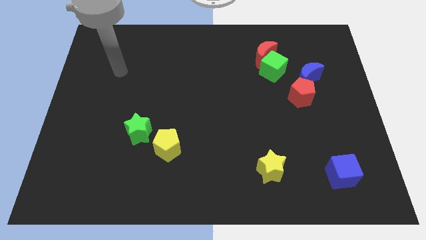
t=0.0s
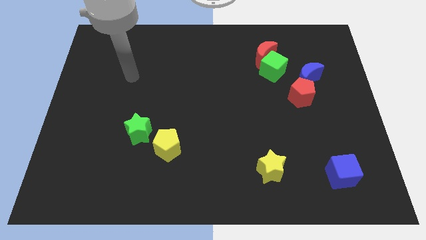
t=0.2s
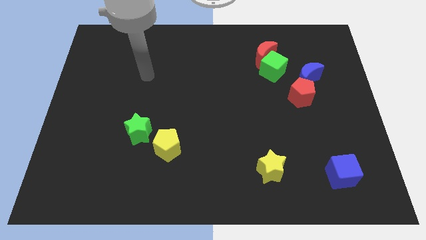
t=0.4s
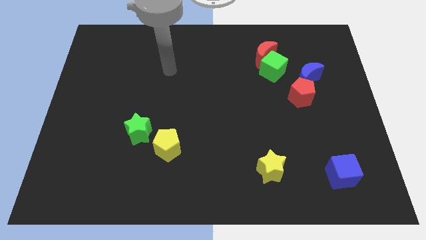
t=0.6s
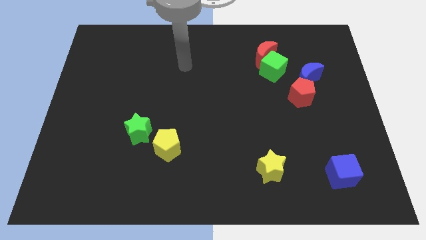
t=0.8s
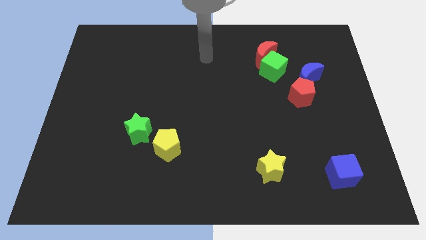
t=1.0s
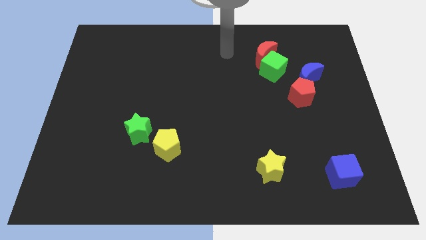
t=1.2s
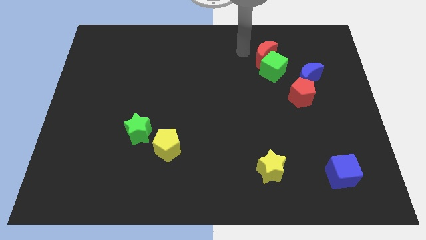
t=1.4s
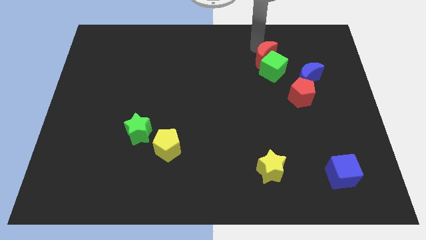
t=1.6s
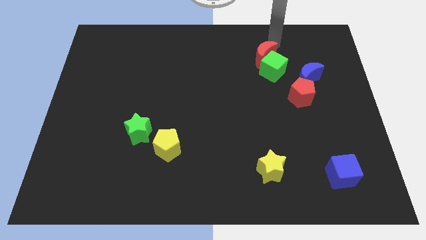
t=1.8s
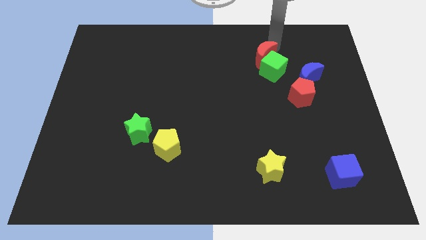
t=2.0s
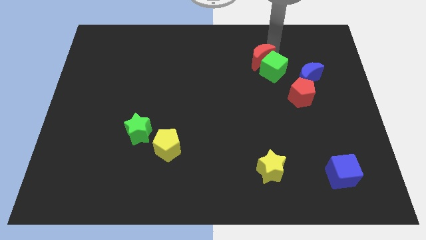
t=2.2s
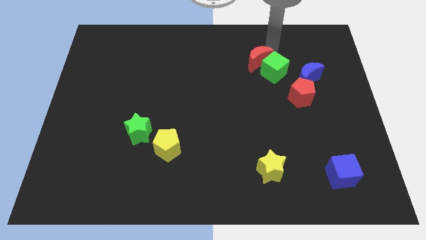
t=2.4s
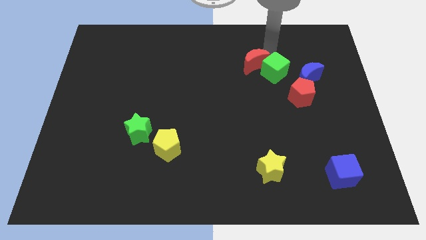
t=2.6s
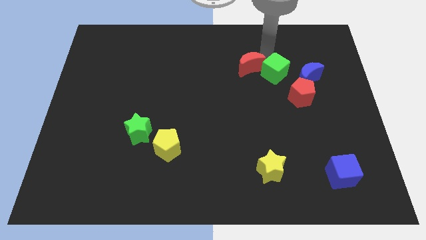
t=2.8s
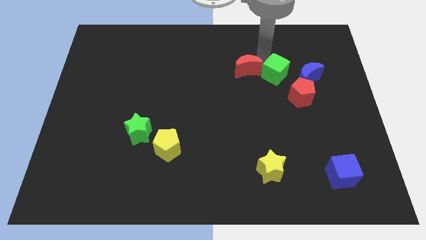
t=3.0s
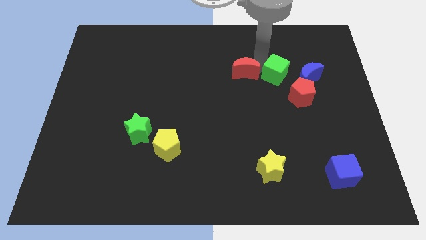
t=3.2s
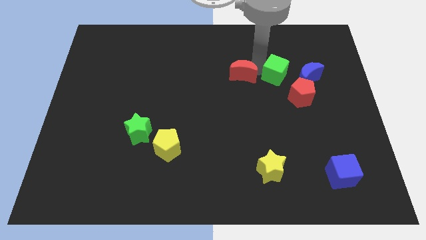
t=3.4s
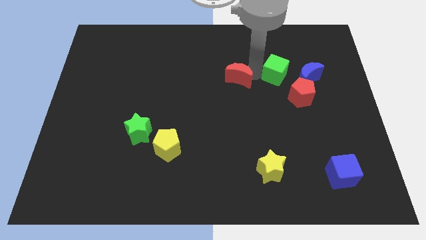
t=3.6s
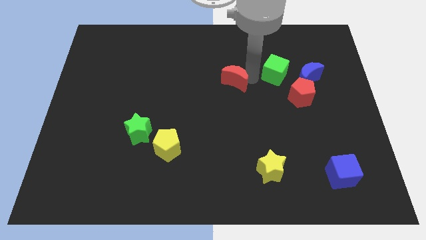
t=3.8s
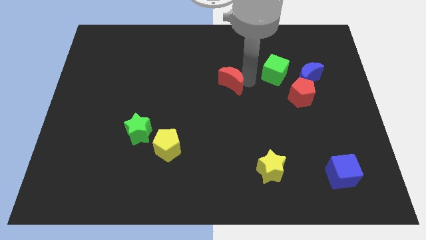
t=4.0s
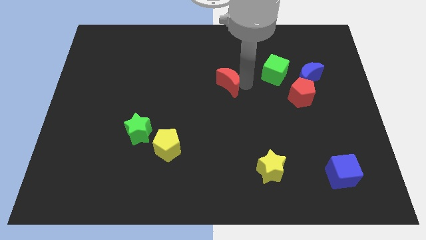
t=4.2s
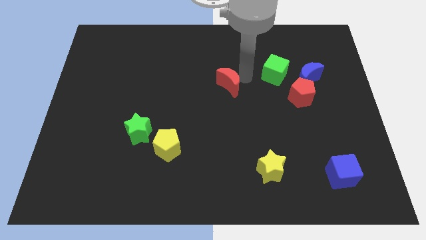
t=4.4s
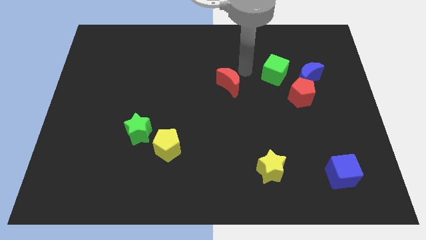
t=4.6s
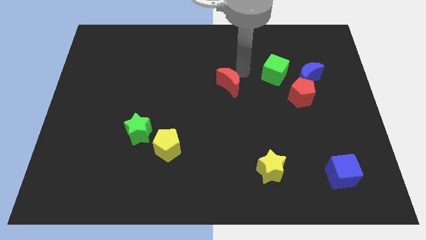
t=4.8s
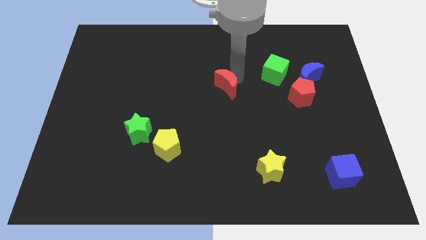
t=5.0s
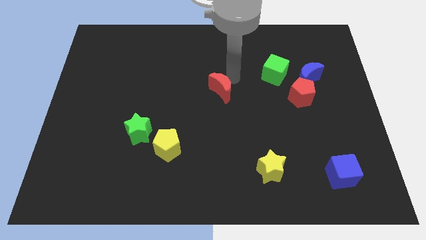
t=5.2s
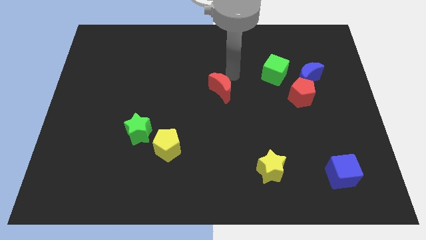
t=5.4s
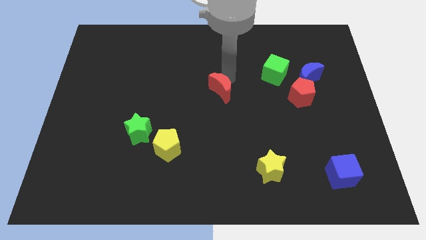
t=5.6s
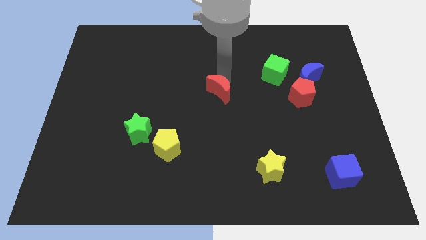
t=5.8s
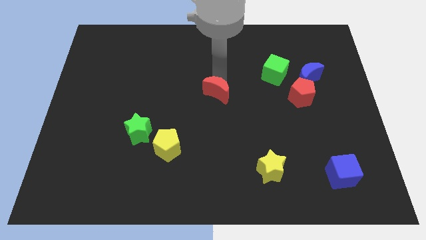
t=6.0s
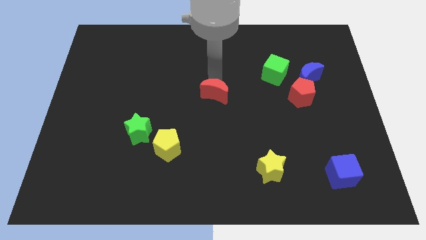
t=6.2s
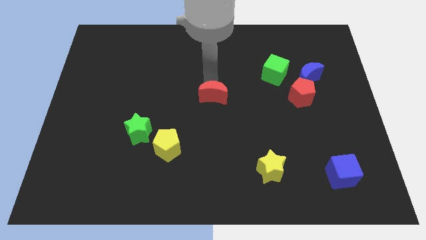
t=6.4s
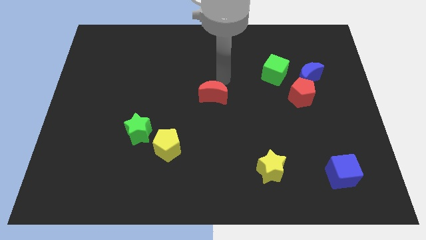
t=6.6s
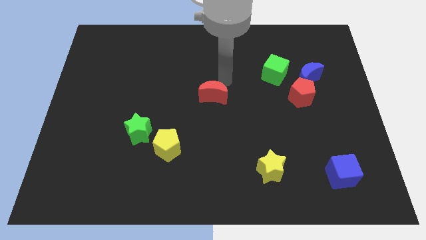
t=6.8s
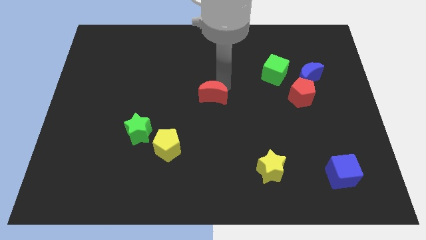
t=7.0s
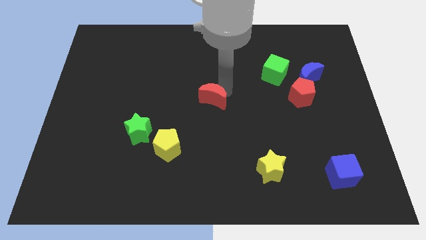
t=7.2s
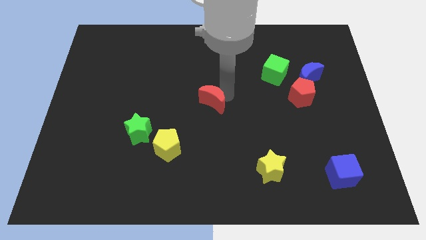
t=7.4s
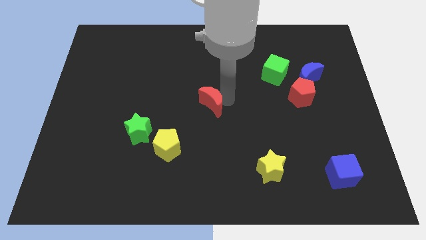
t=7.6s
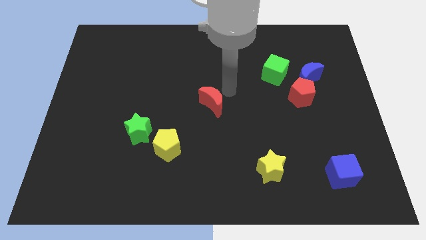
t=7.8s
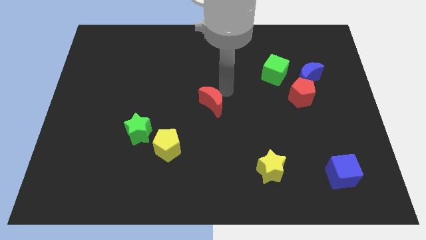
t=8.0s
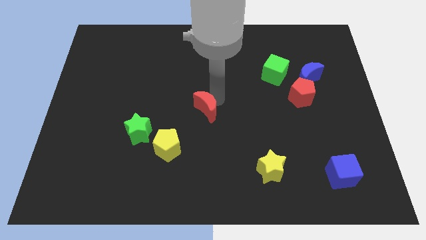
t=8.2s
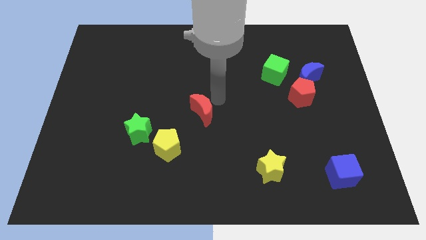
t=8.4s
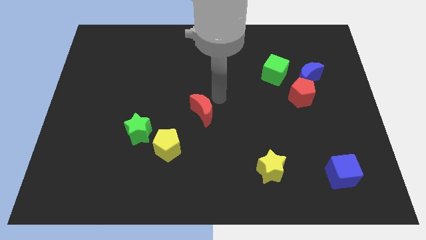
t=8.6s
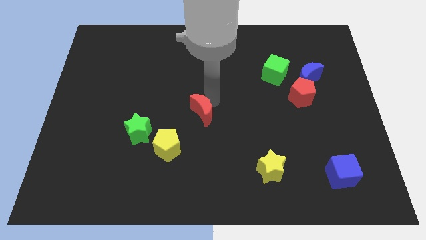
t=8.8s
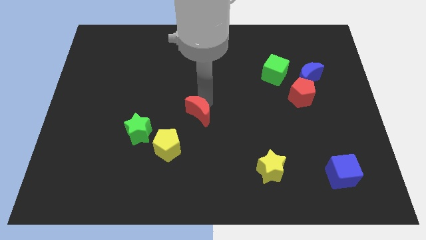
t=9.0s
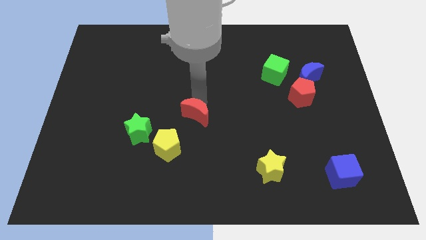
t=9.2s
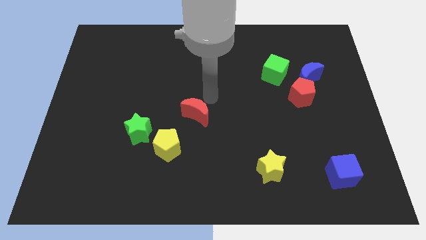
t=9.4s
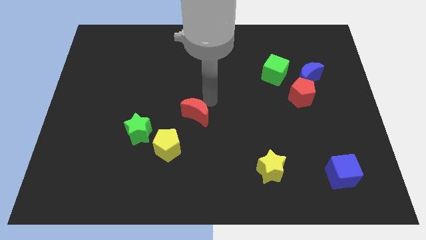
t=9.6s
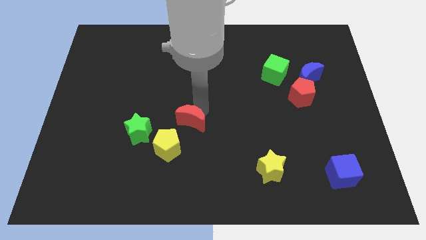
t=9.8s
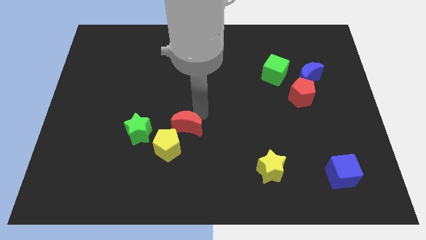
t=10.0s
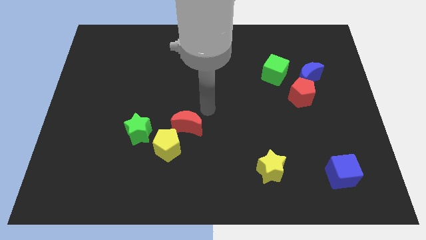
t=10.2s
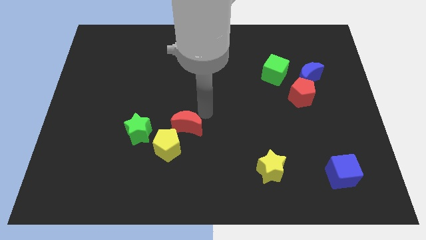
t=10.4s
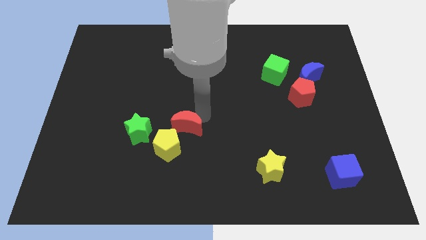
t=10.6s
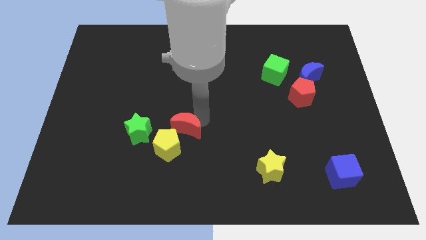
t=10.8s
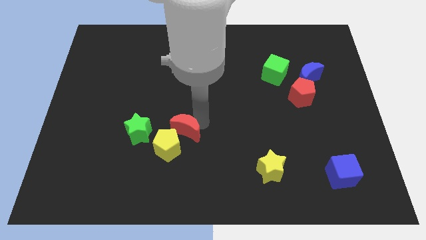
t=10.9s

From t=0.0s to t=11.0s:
put the red moon towards the yellow pentagon

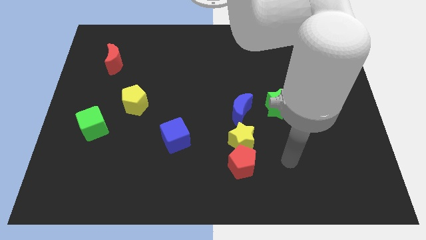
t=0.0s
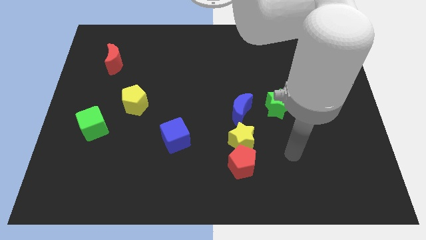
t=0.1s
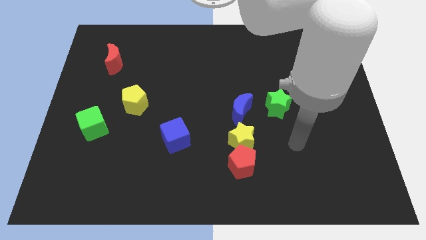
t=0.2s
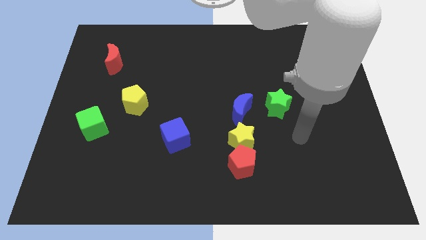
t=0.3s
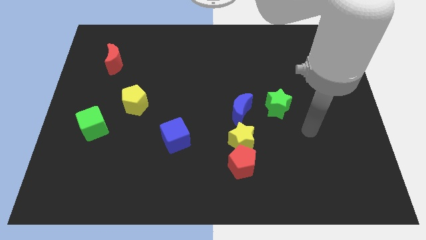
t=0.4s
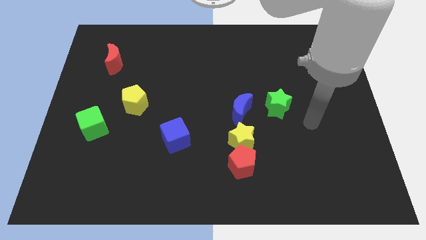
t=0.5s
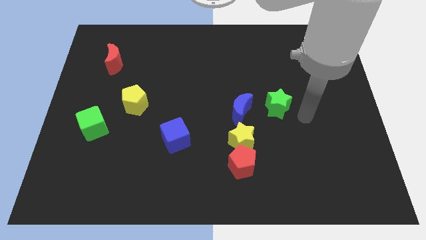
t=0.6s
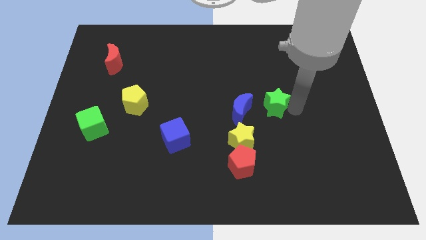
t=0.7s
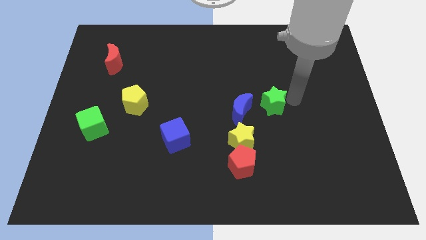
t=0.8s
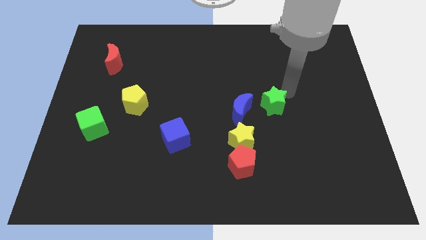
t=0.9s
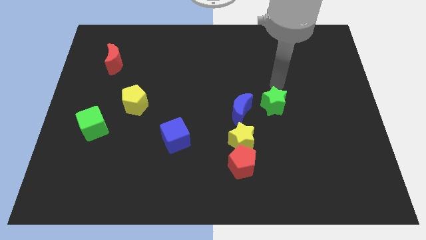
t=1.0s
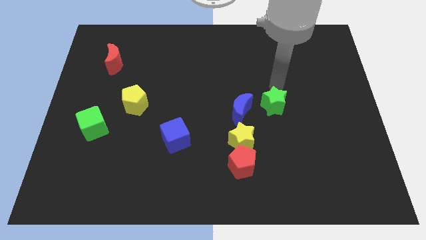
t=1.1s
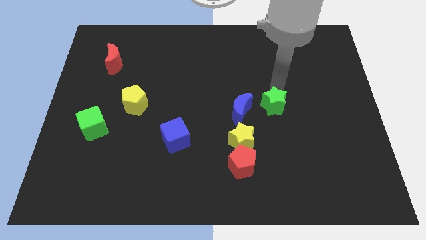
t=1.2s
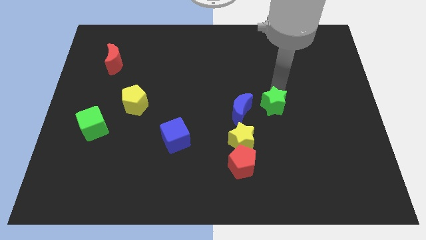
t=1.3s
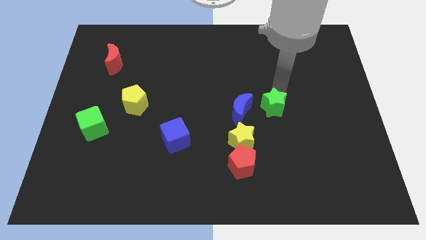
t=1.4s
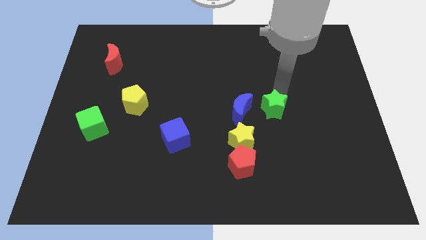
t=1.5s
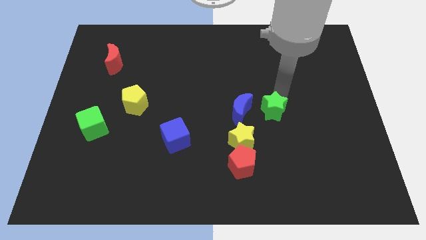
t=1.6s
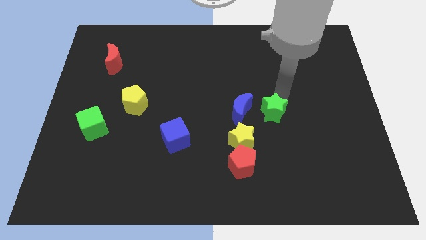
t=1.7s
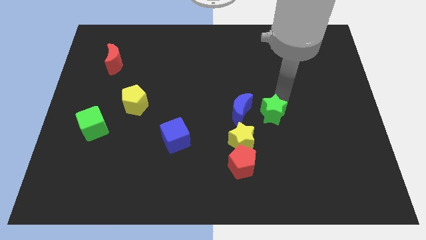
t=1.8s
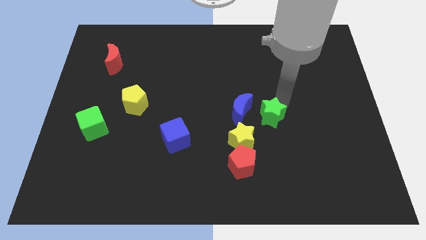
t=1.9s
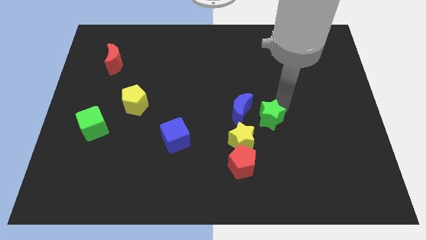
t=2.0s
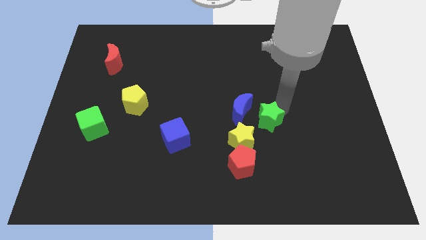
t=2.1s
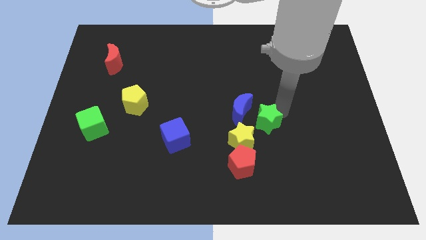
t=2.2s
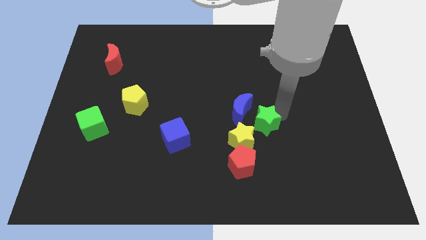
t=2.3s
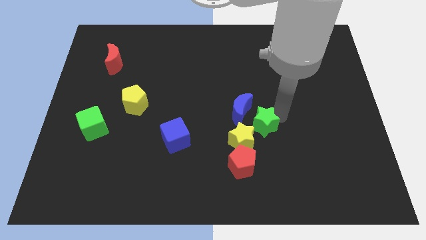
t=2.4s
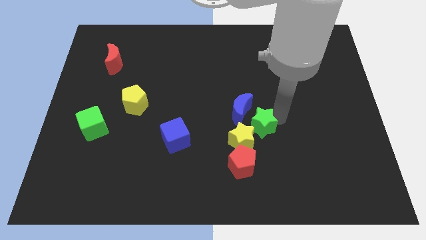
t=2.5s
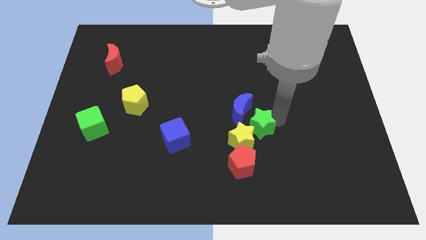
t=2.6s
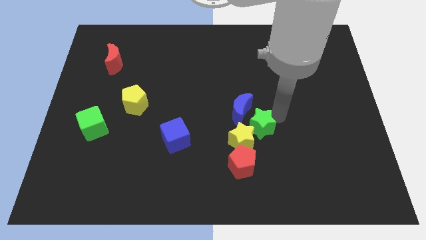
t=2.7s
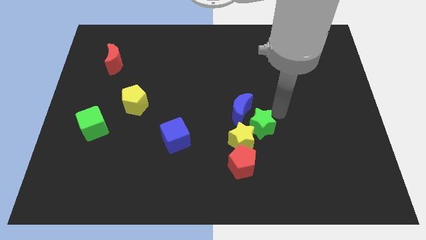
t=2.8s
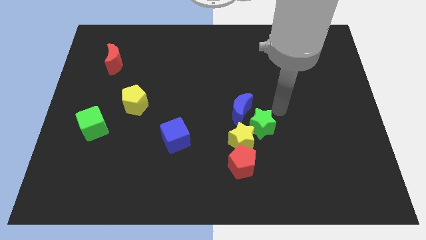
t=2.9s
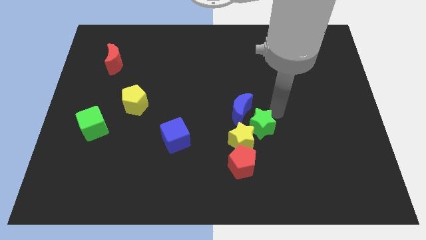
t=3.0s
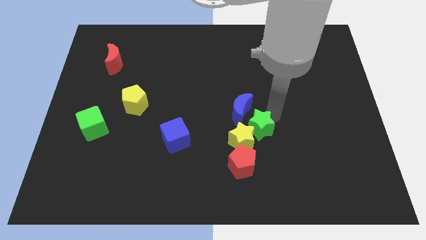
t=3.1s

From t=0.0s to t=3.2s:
slide the green star next to the yellow star
